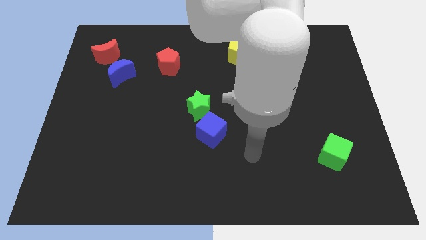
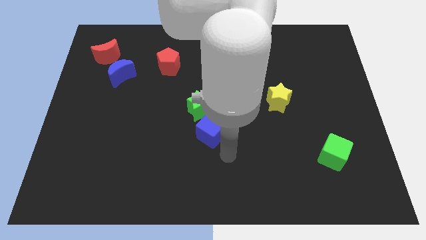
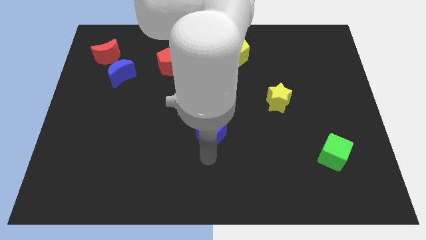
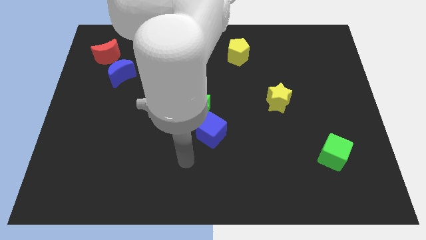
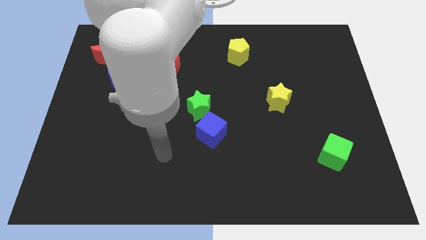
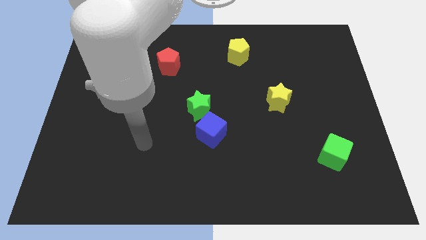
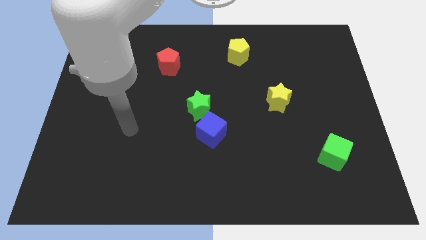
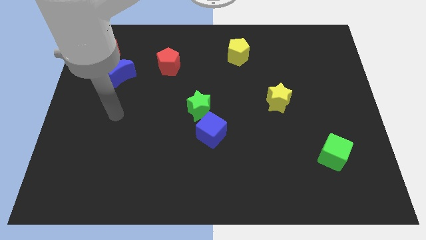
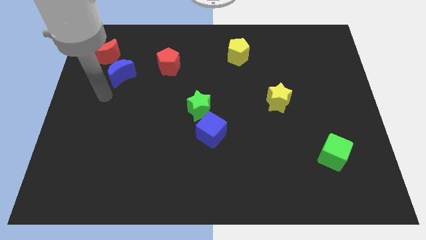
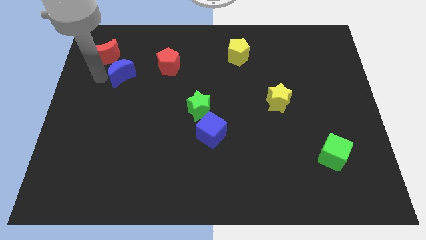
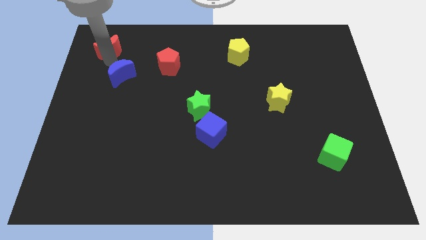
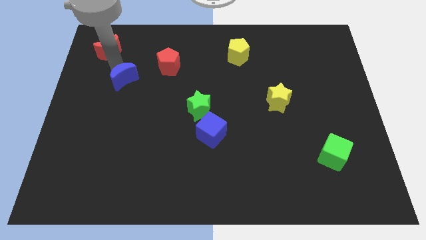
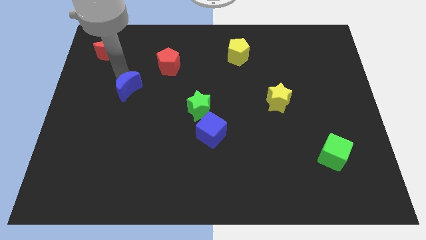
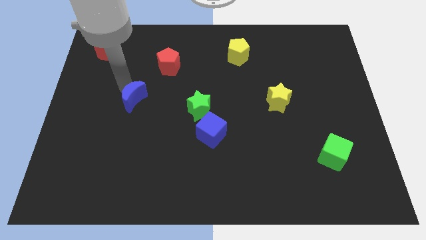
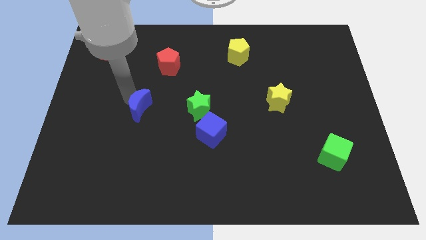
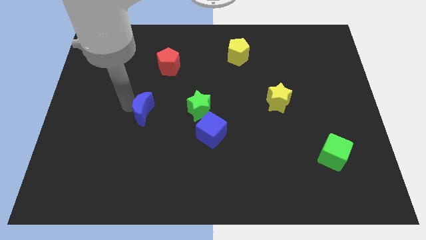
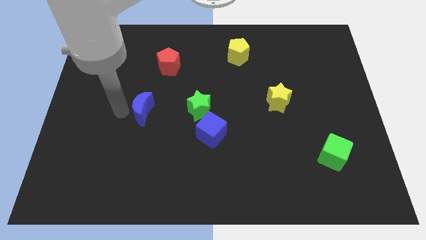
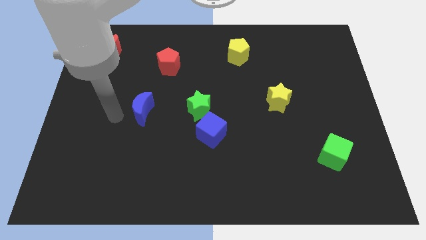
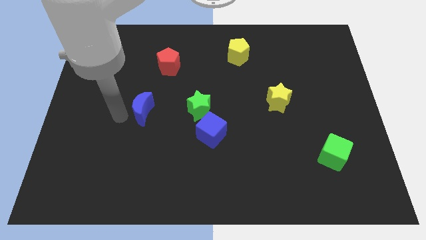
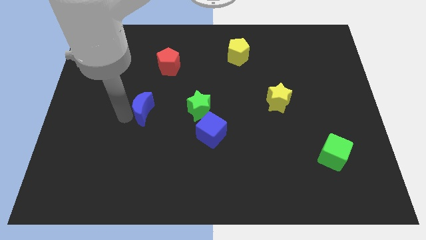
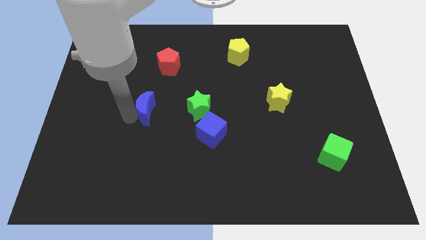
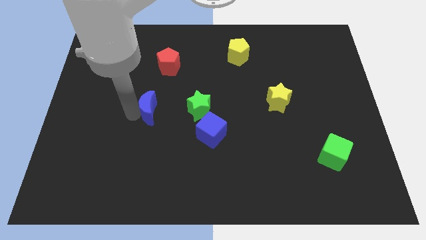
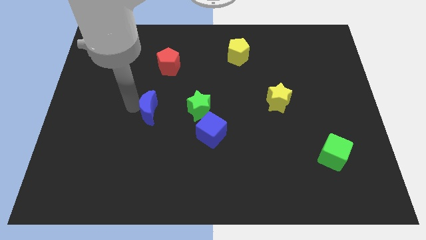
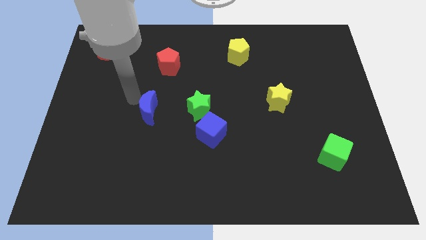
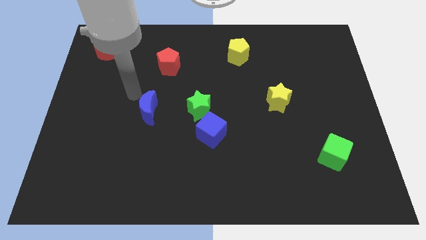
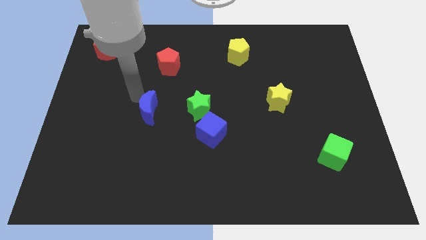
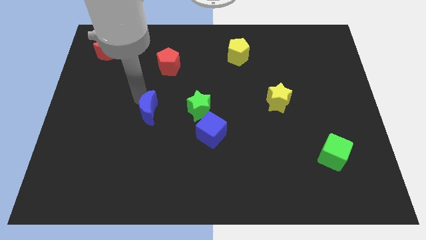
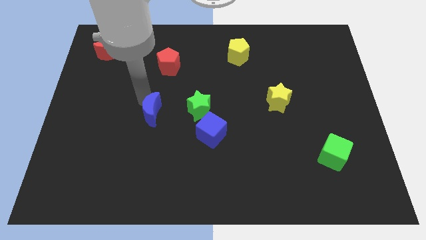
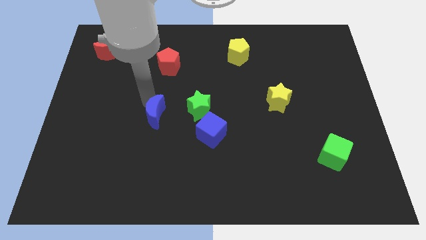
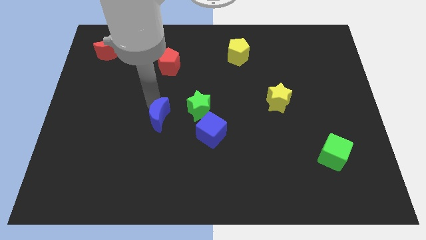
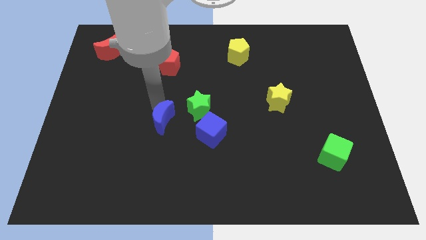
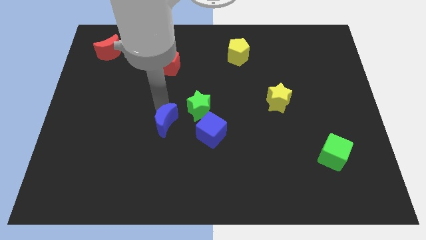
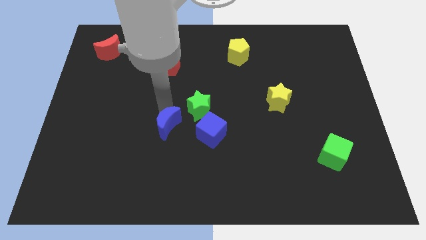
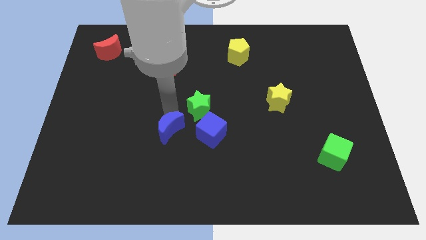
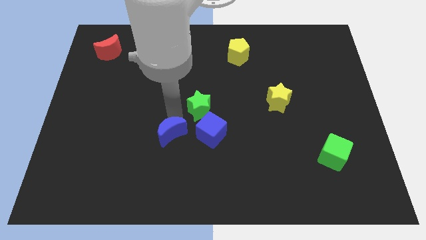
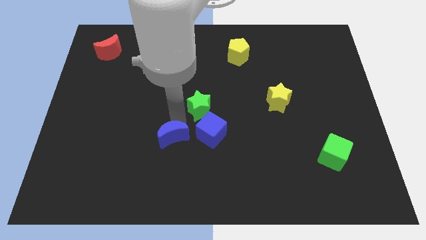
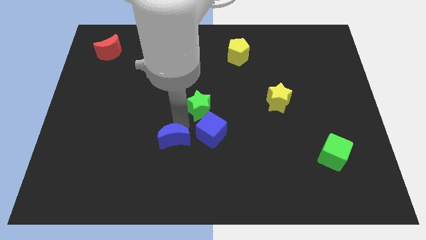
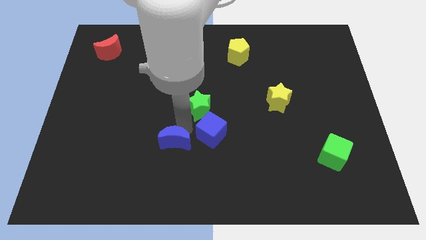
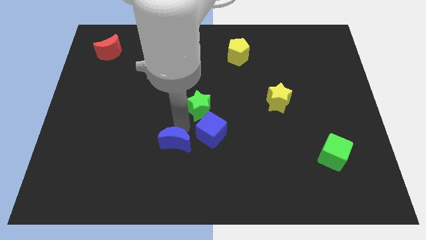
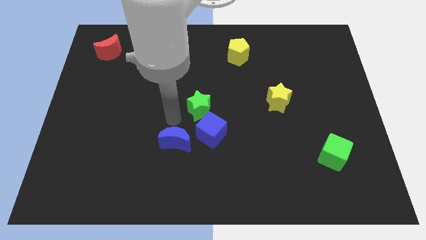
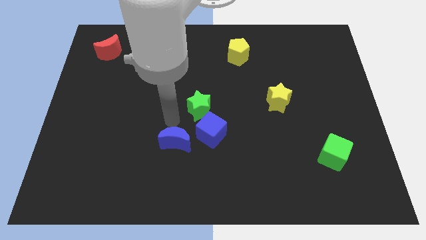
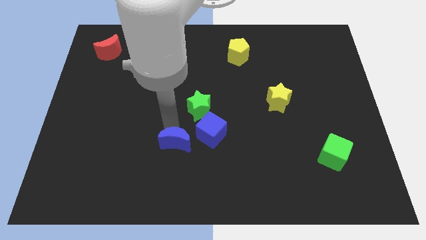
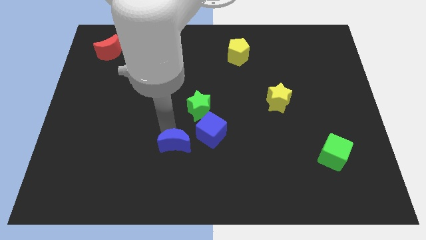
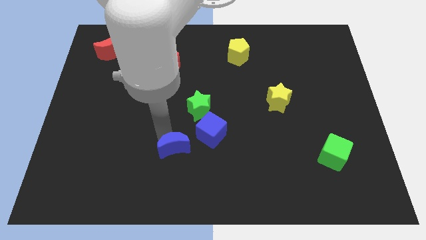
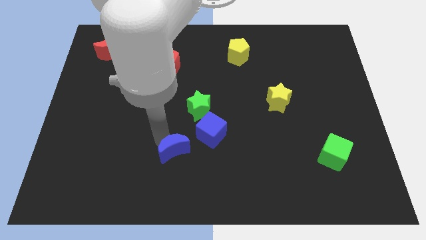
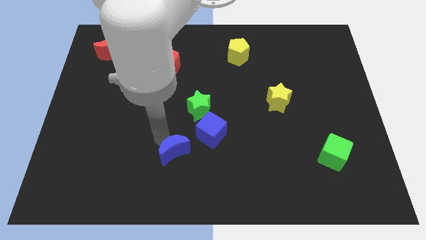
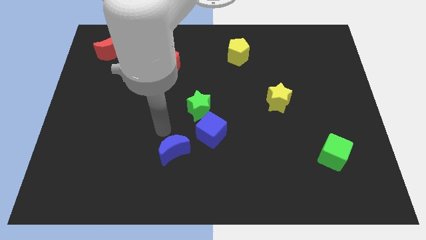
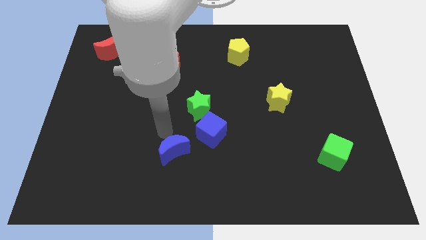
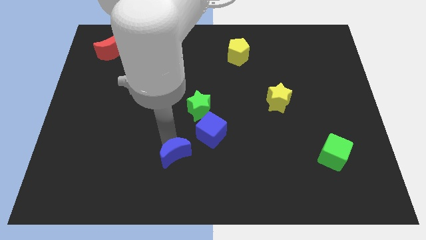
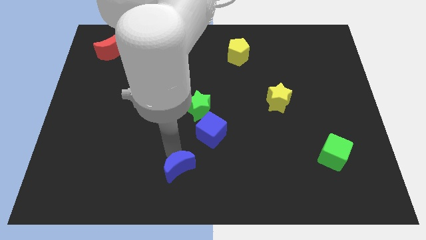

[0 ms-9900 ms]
move the blue moon to the bottom

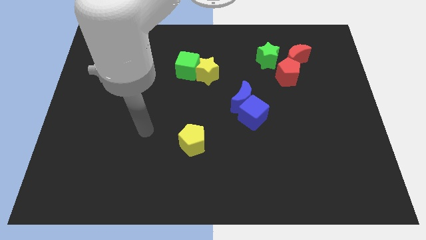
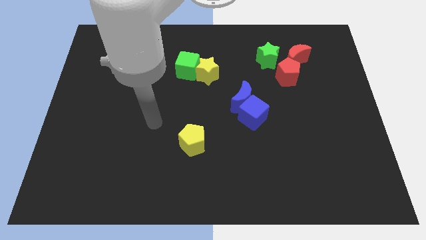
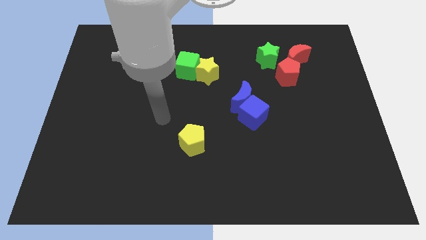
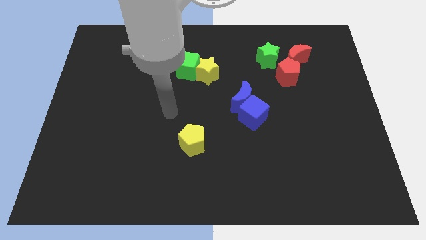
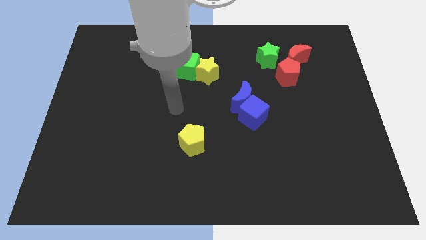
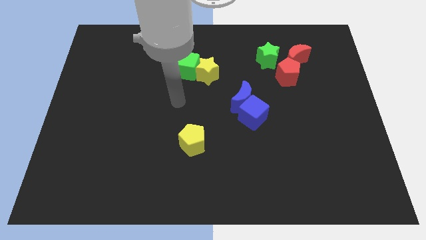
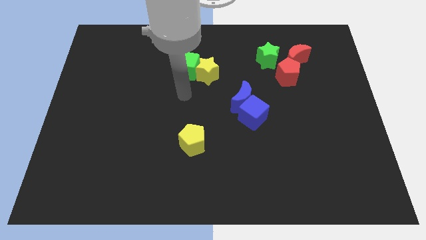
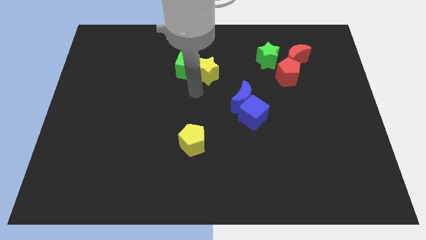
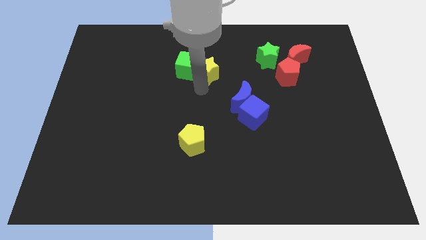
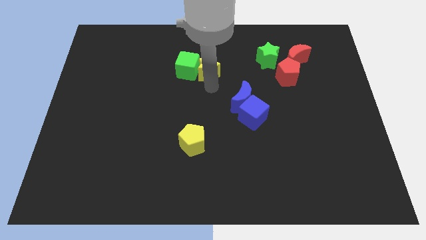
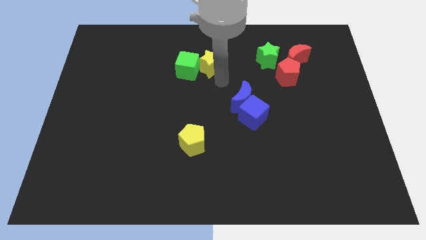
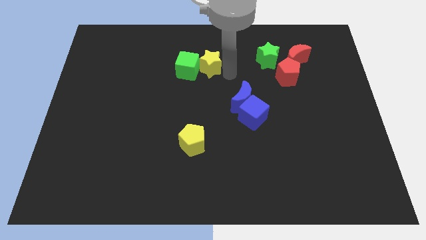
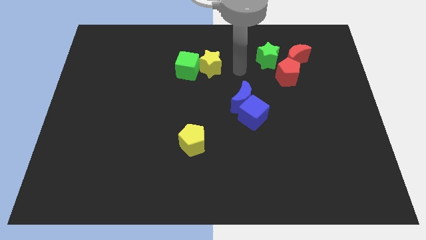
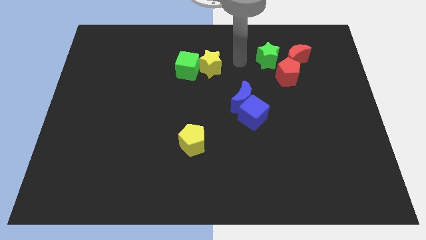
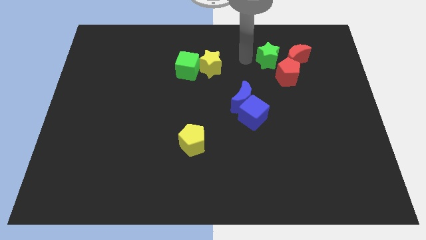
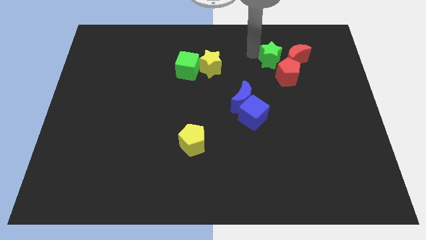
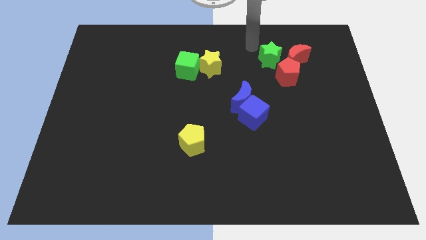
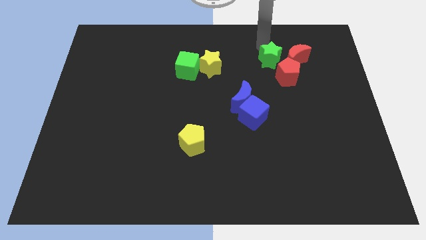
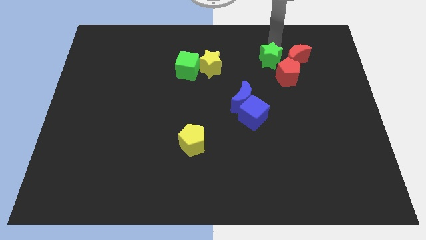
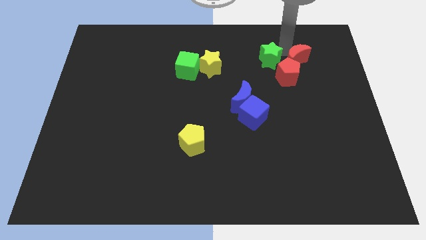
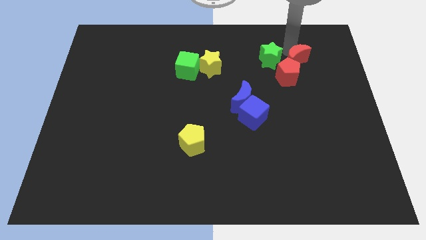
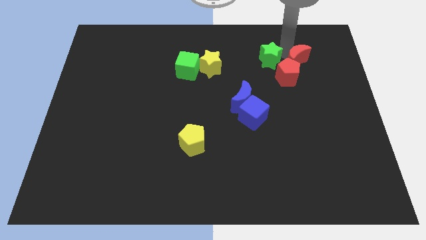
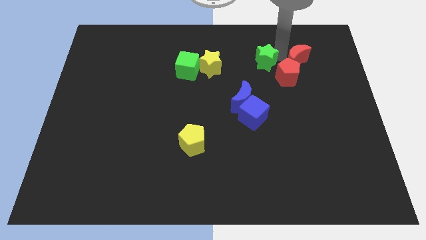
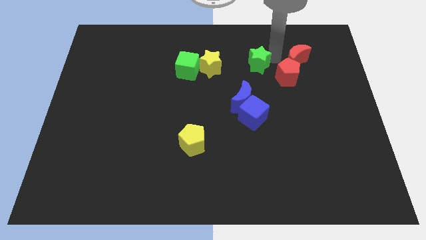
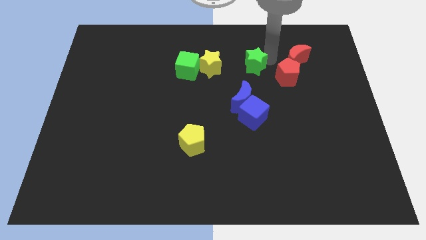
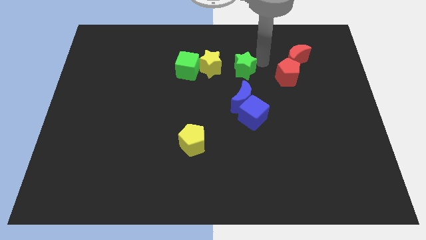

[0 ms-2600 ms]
slide the green star to the center of the board

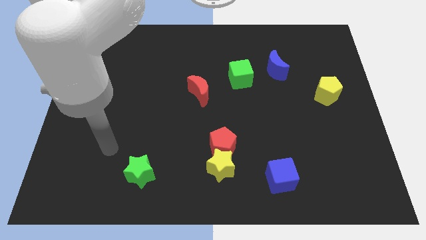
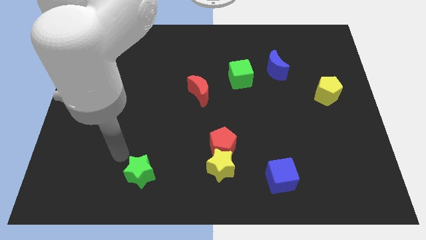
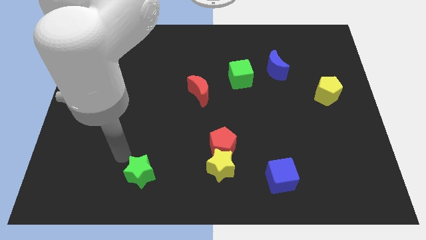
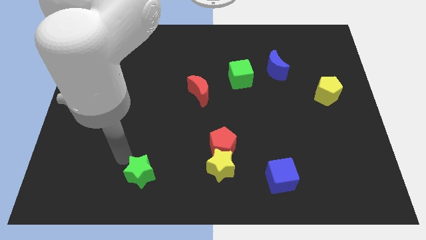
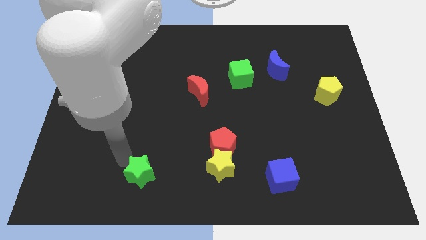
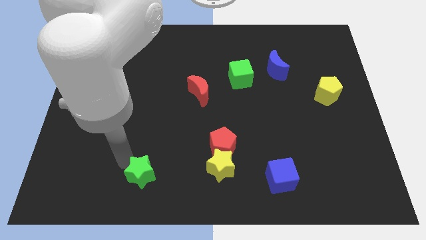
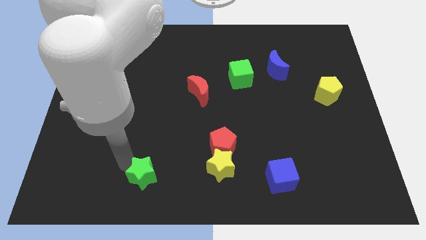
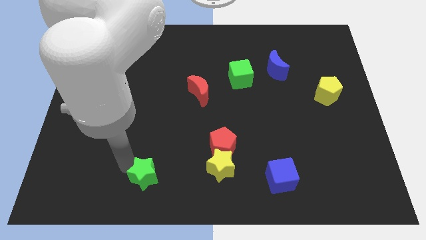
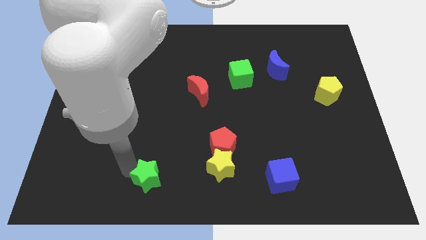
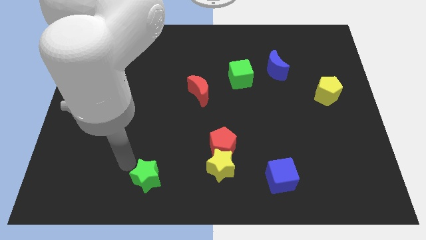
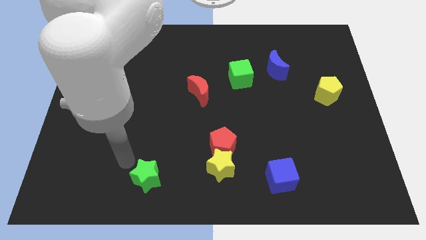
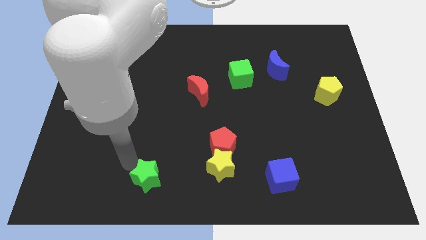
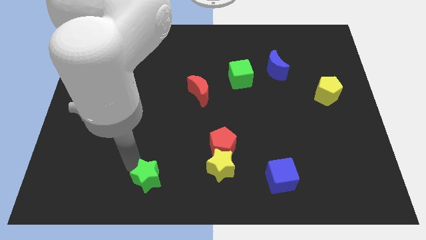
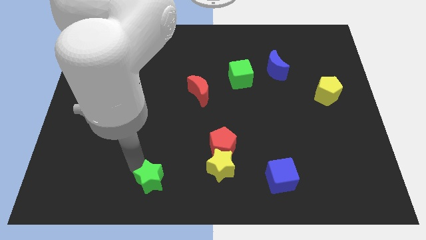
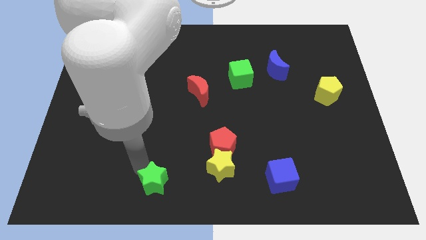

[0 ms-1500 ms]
slide the green star to the bottom
